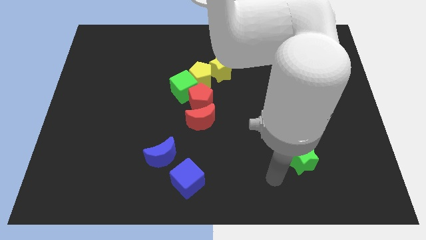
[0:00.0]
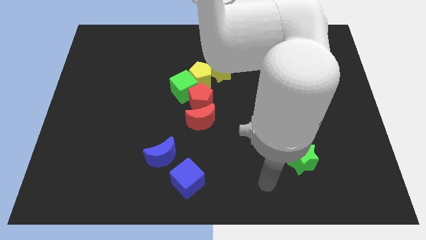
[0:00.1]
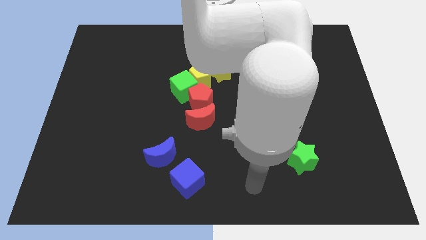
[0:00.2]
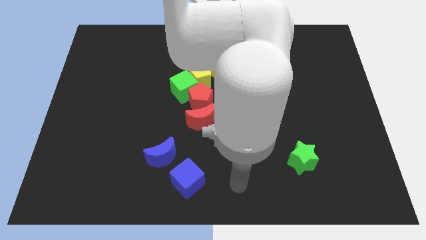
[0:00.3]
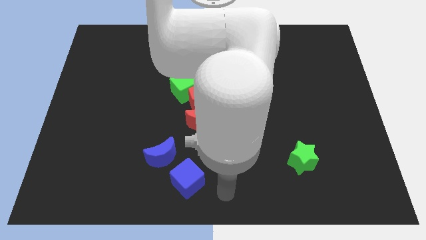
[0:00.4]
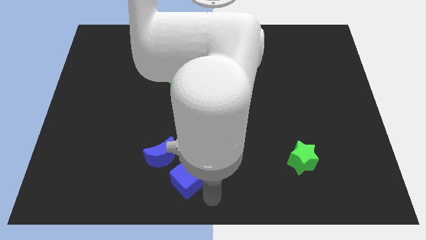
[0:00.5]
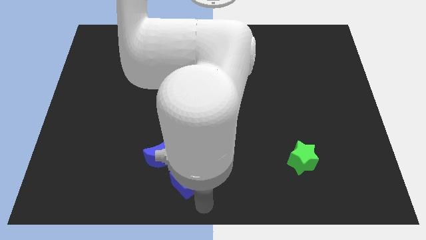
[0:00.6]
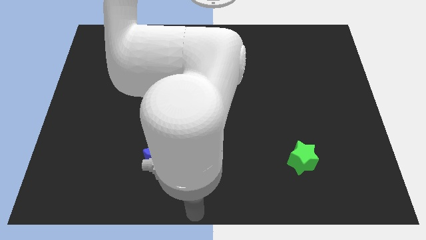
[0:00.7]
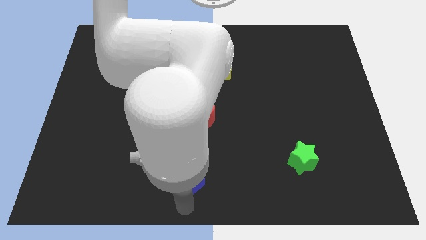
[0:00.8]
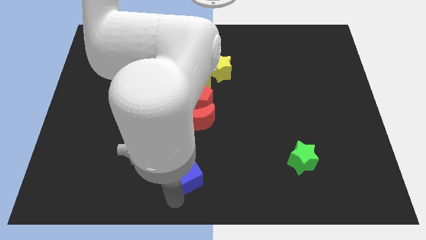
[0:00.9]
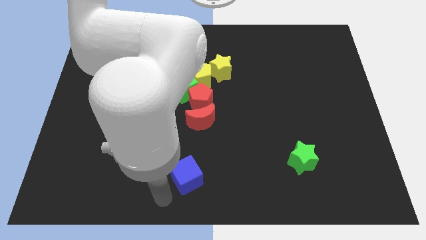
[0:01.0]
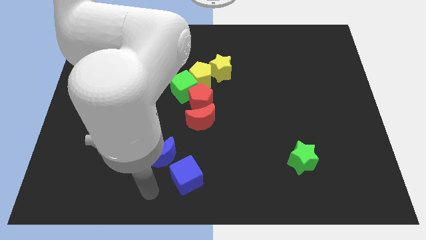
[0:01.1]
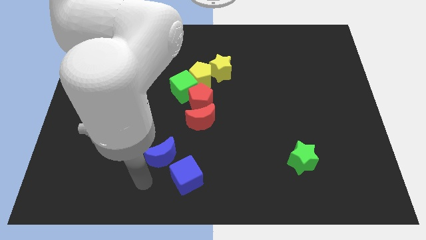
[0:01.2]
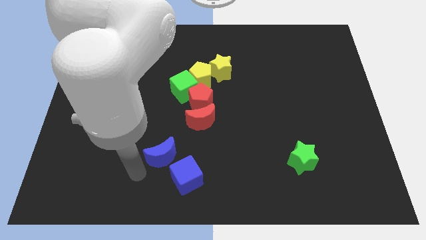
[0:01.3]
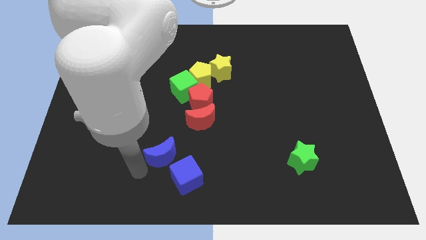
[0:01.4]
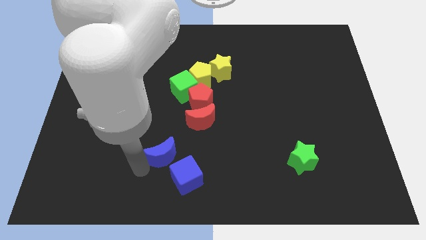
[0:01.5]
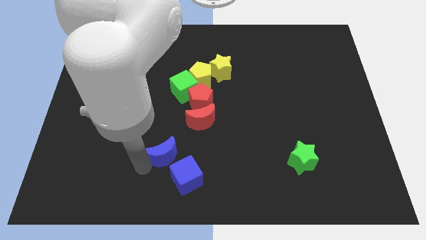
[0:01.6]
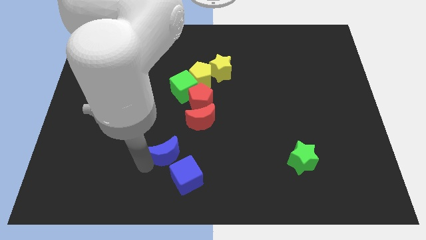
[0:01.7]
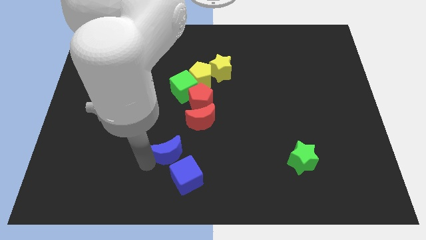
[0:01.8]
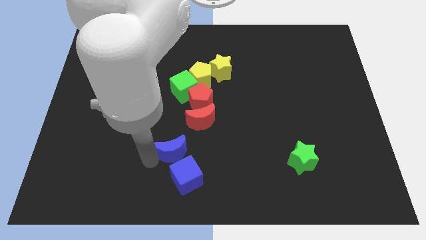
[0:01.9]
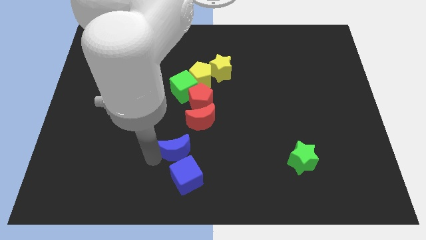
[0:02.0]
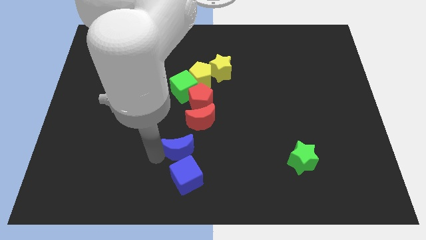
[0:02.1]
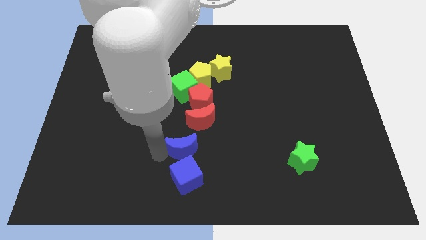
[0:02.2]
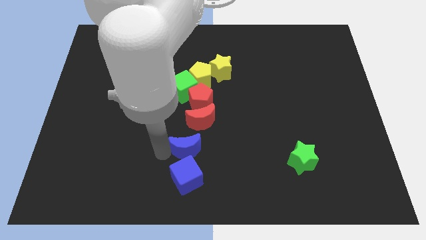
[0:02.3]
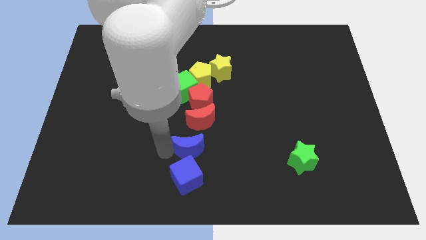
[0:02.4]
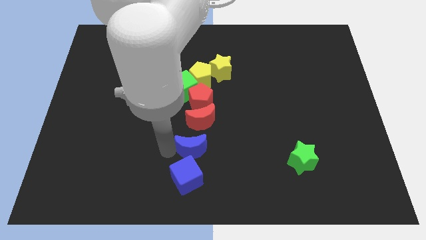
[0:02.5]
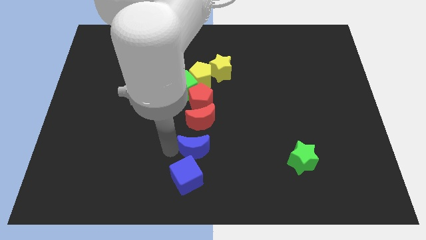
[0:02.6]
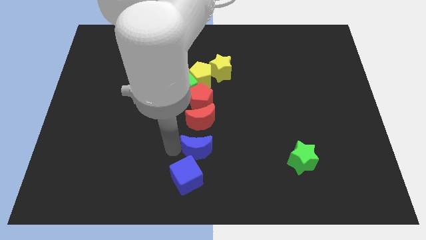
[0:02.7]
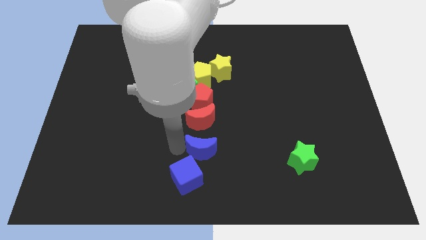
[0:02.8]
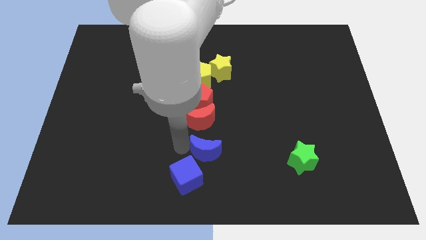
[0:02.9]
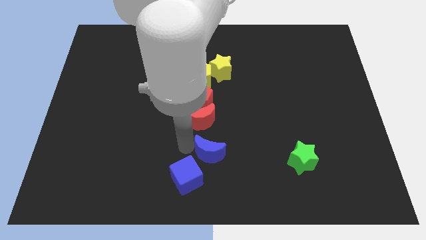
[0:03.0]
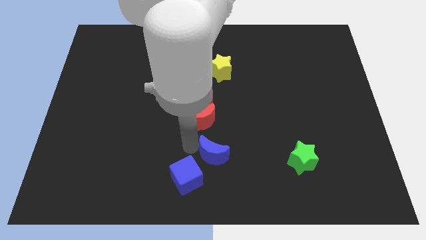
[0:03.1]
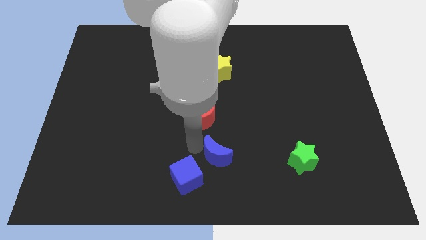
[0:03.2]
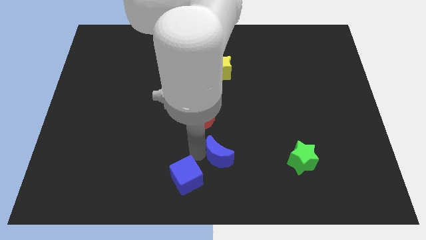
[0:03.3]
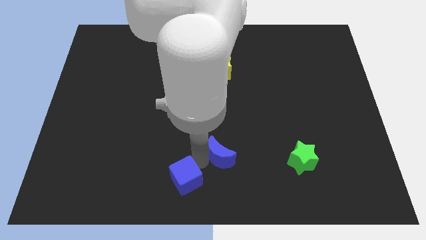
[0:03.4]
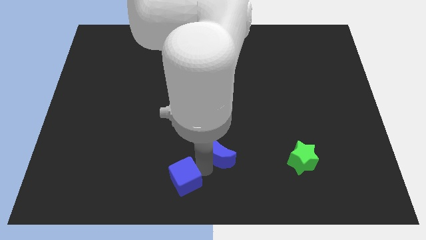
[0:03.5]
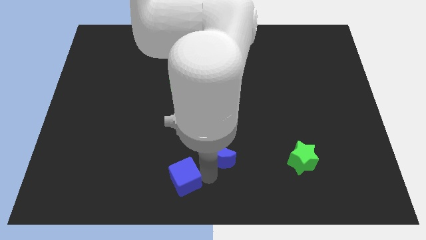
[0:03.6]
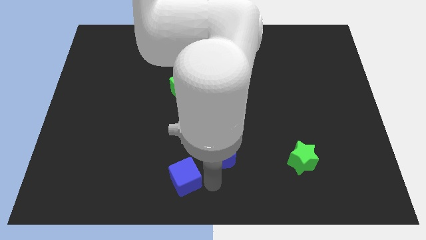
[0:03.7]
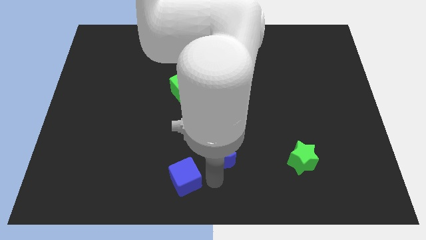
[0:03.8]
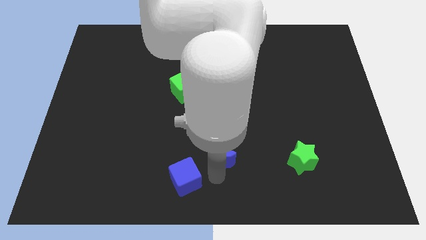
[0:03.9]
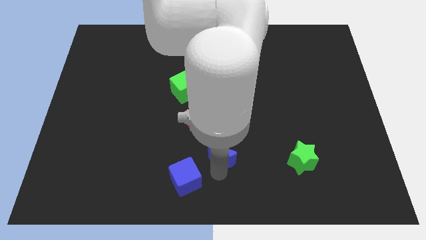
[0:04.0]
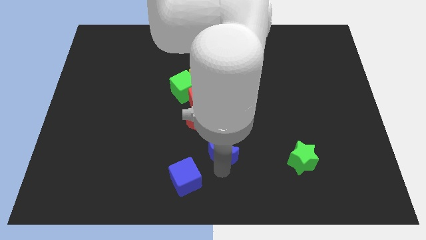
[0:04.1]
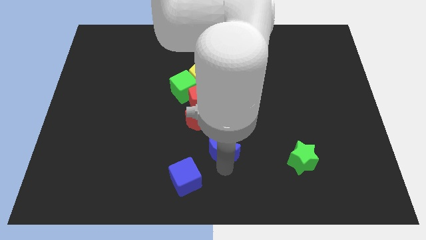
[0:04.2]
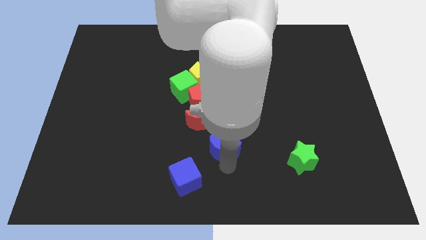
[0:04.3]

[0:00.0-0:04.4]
slightly push the blue moon up and to the right

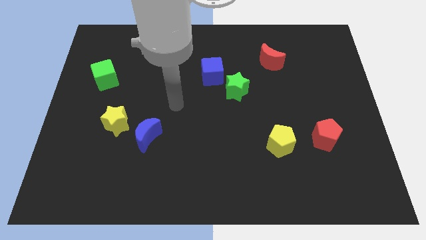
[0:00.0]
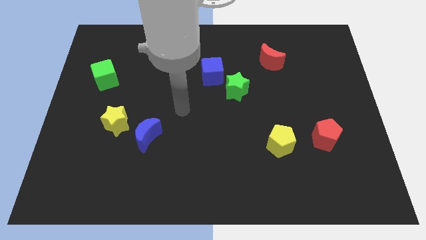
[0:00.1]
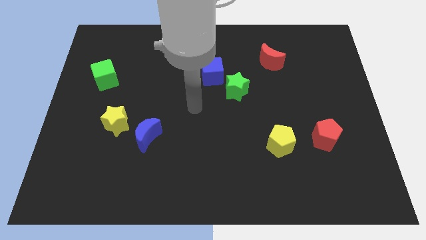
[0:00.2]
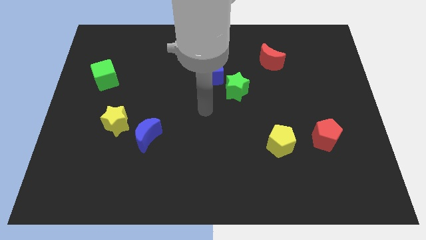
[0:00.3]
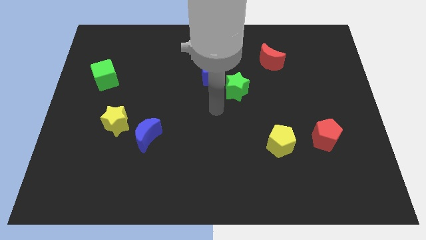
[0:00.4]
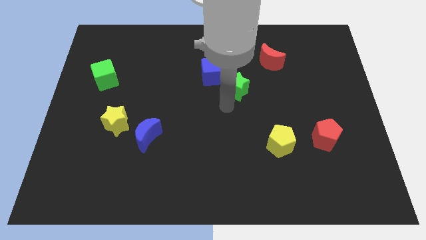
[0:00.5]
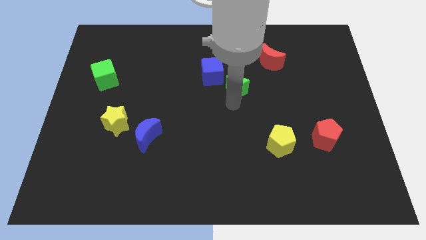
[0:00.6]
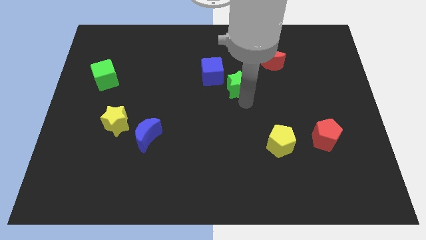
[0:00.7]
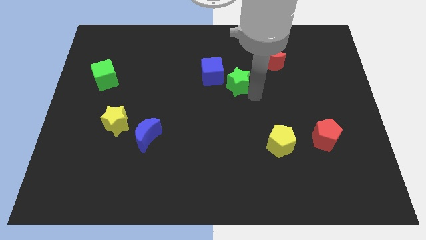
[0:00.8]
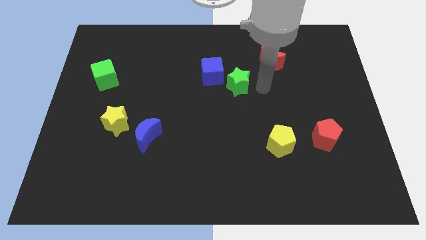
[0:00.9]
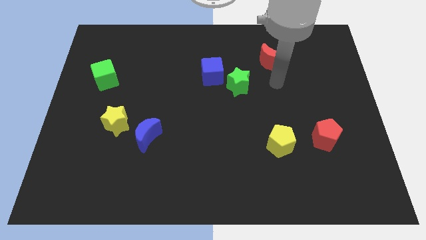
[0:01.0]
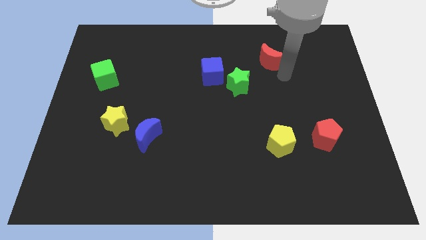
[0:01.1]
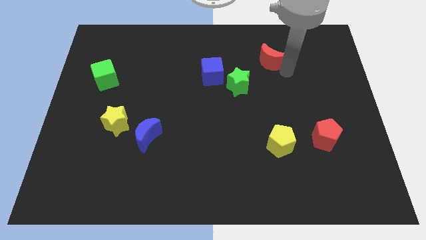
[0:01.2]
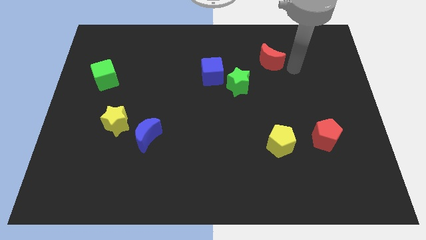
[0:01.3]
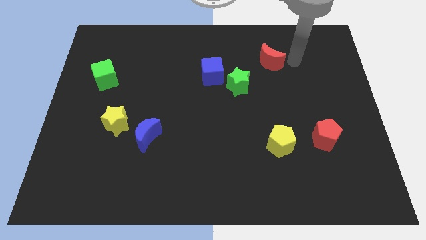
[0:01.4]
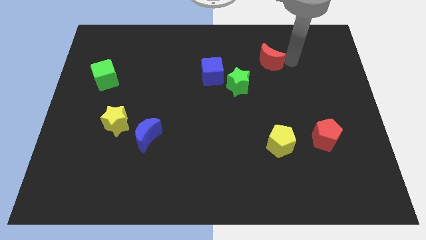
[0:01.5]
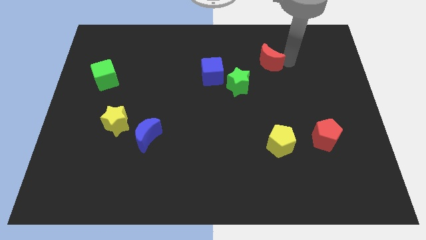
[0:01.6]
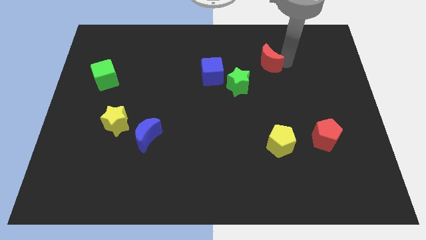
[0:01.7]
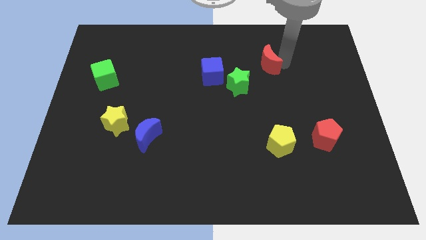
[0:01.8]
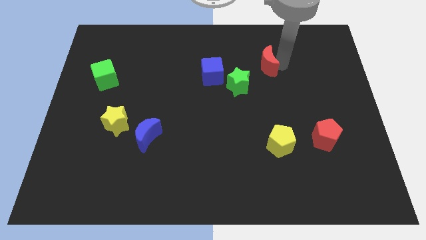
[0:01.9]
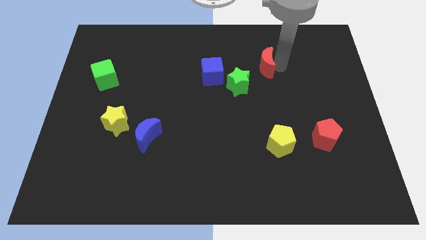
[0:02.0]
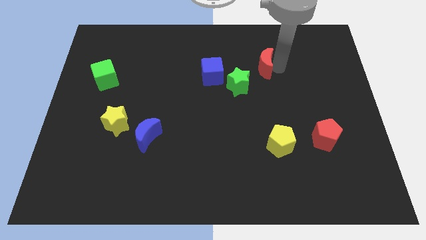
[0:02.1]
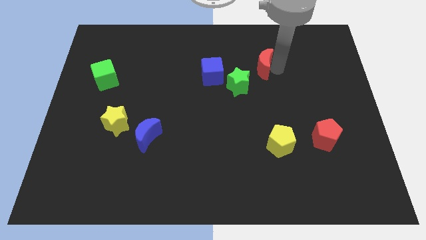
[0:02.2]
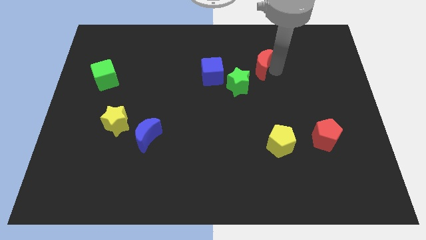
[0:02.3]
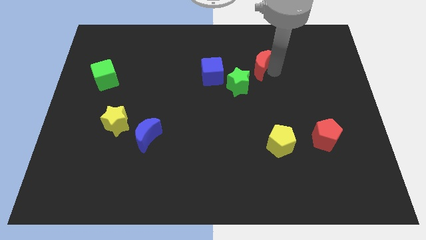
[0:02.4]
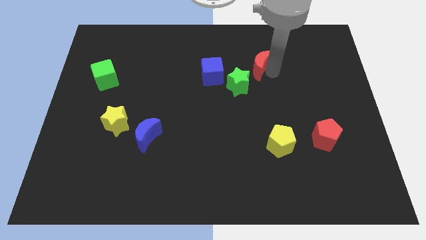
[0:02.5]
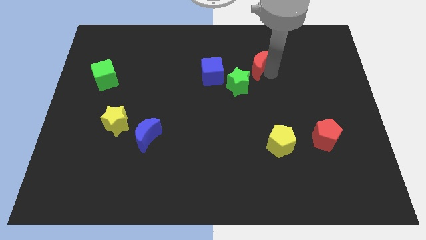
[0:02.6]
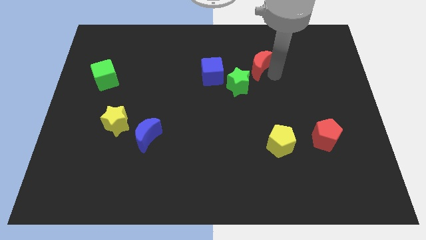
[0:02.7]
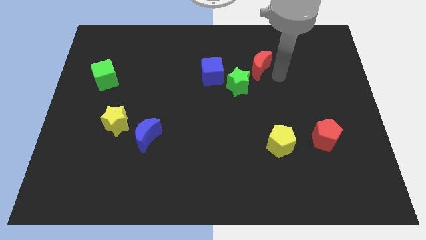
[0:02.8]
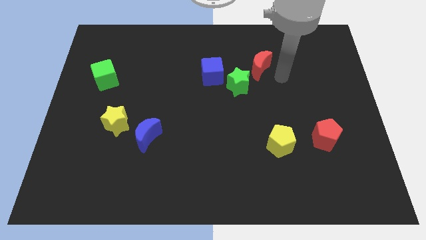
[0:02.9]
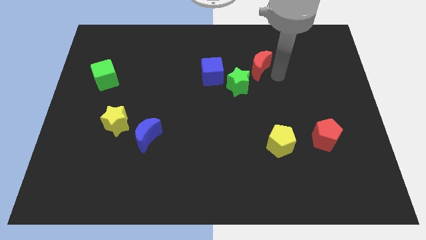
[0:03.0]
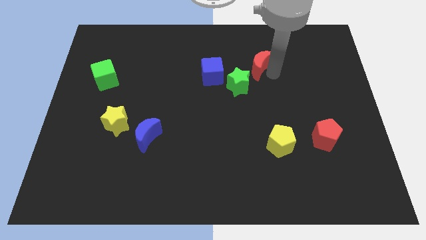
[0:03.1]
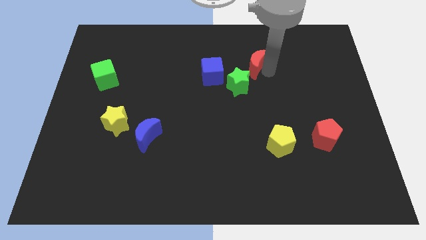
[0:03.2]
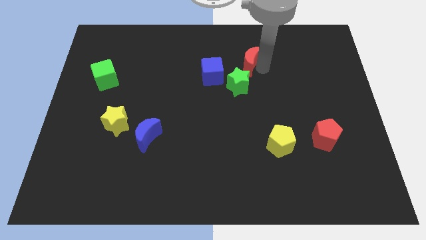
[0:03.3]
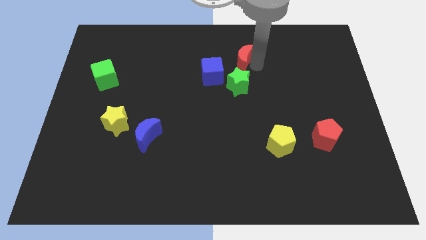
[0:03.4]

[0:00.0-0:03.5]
slightly move the red moon to the left

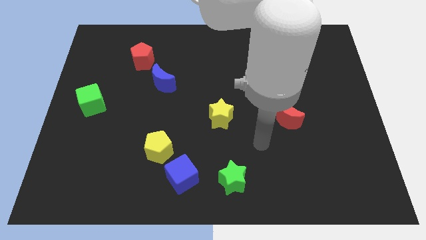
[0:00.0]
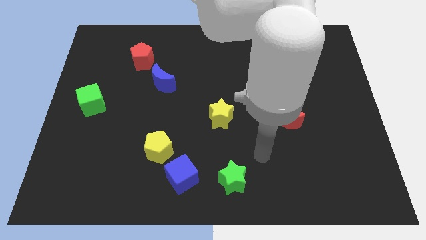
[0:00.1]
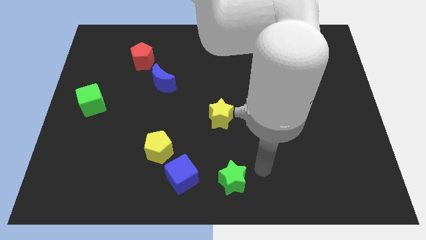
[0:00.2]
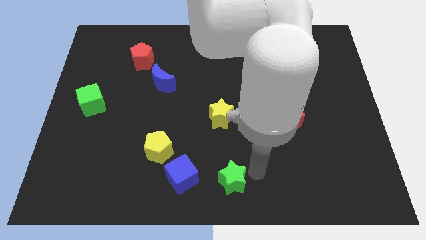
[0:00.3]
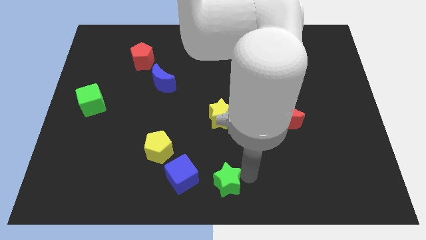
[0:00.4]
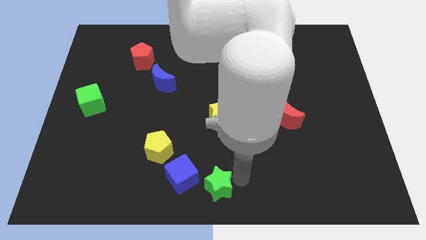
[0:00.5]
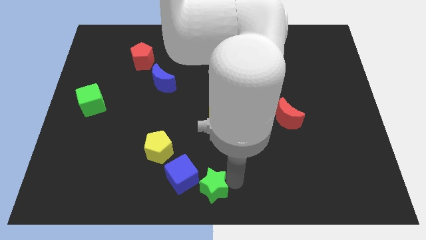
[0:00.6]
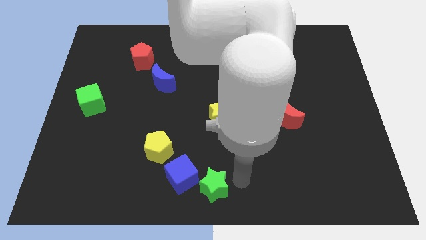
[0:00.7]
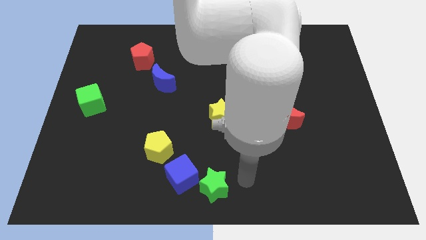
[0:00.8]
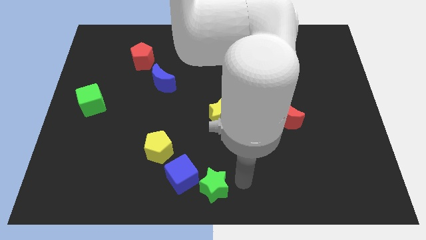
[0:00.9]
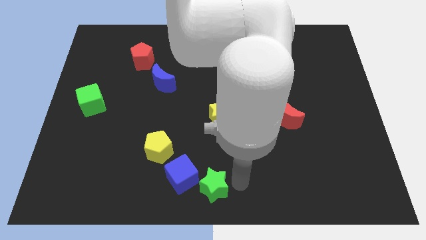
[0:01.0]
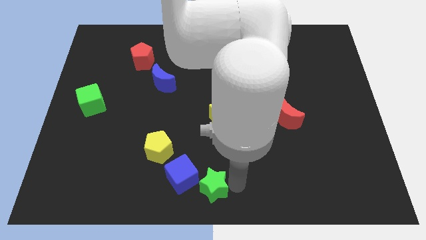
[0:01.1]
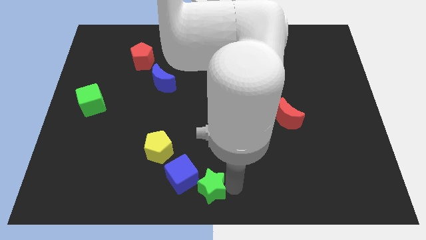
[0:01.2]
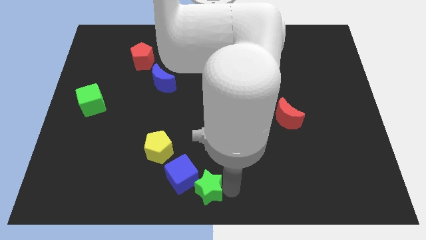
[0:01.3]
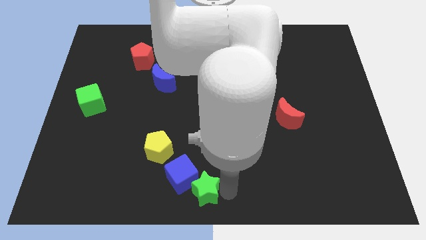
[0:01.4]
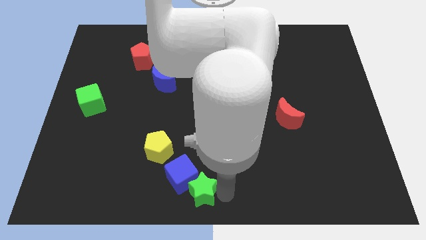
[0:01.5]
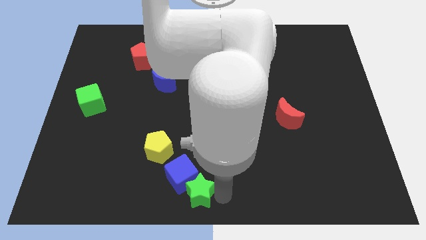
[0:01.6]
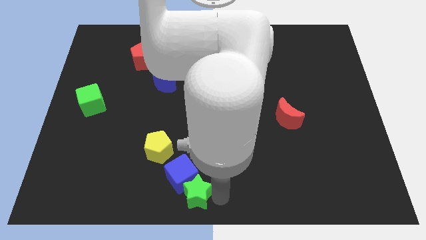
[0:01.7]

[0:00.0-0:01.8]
slightly push the green star left
